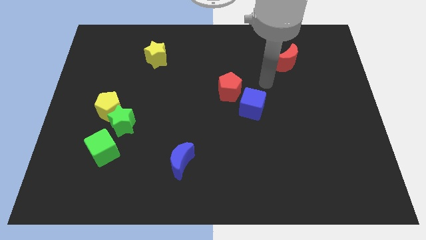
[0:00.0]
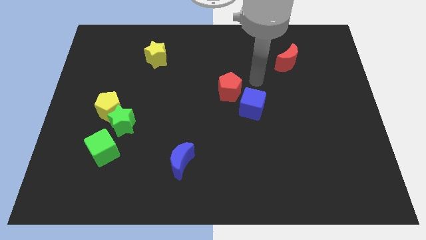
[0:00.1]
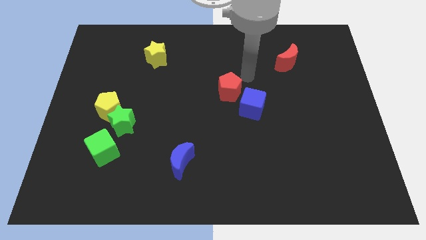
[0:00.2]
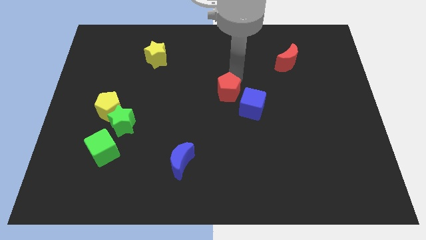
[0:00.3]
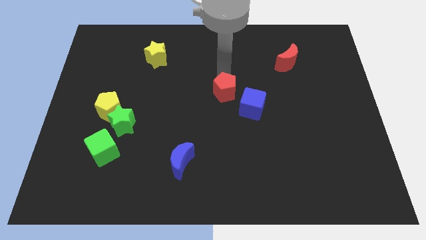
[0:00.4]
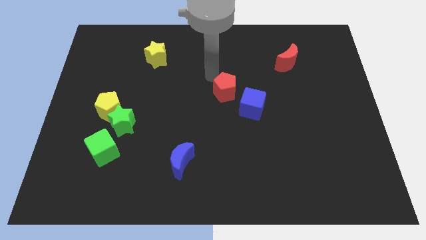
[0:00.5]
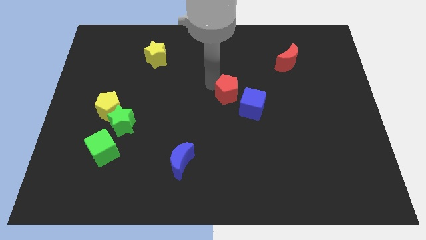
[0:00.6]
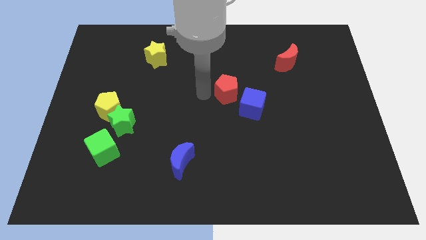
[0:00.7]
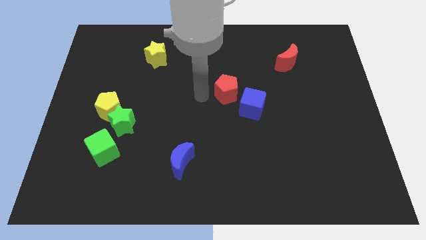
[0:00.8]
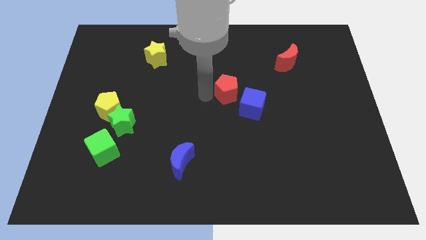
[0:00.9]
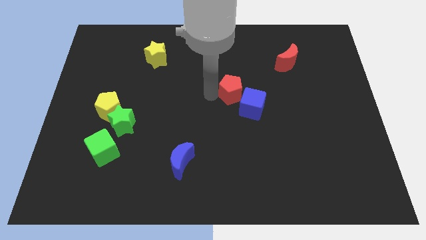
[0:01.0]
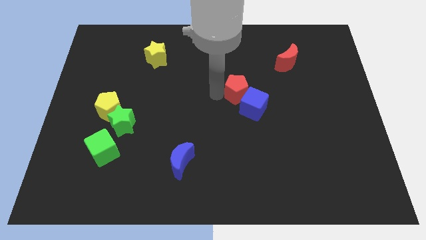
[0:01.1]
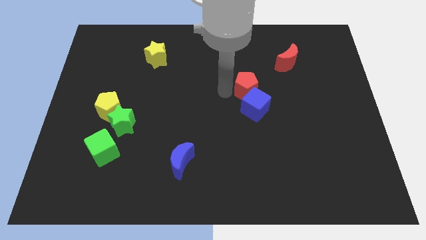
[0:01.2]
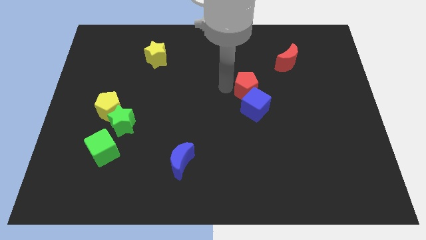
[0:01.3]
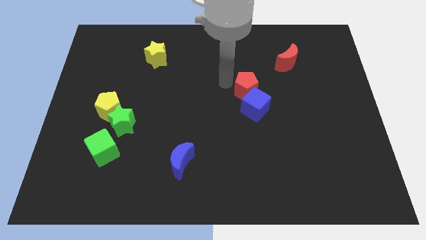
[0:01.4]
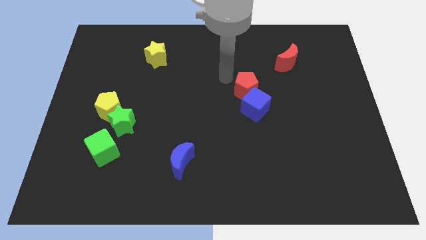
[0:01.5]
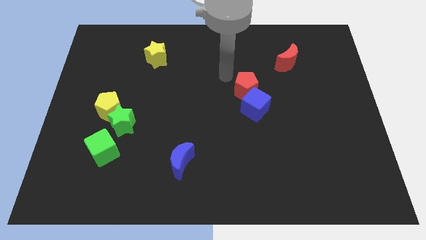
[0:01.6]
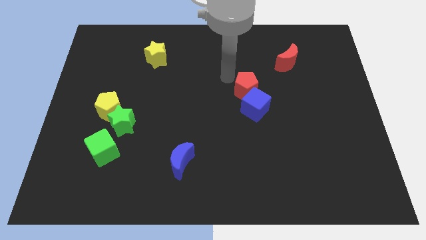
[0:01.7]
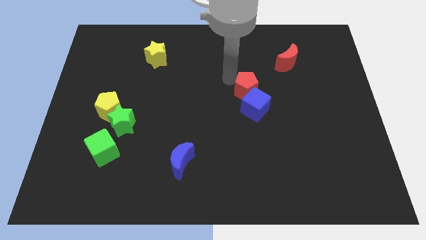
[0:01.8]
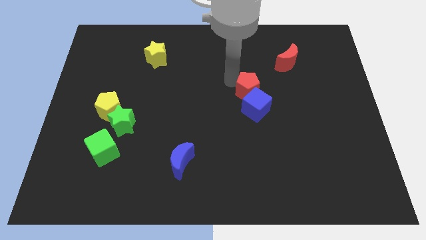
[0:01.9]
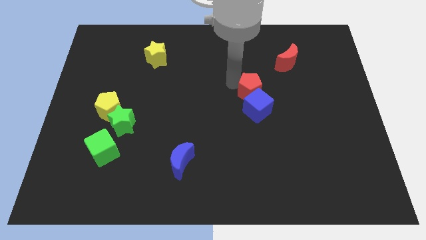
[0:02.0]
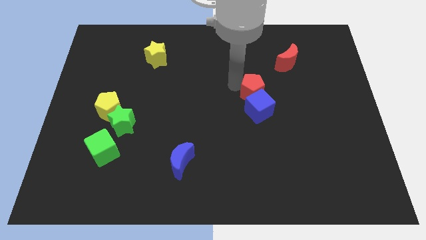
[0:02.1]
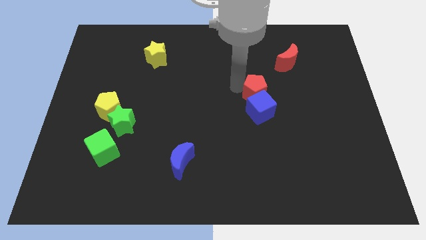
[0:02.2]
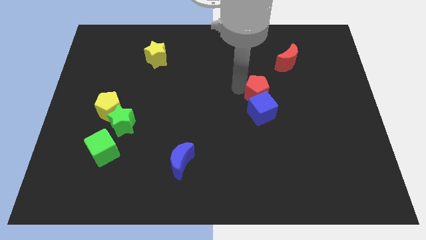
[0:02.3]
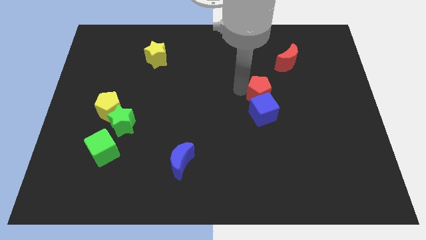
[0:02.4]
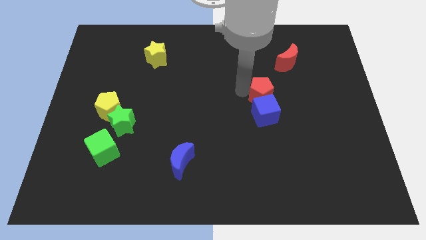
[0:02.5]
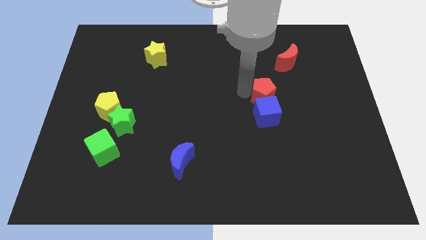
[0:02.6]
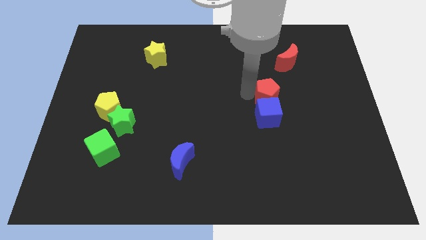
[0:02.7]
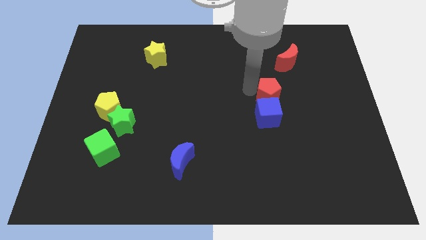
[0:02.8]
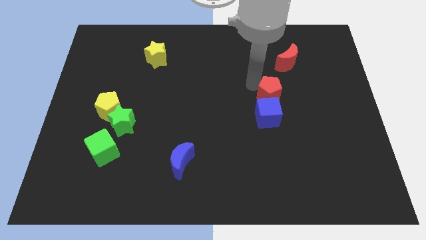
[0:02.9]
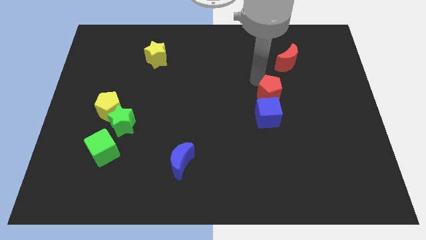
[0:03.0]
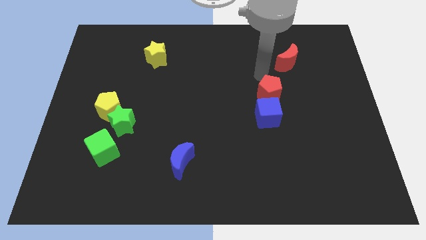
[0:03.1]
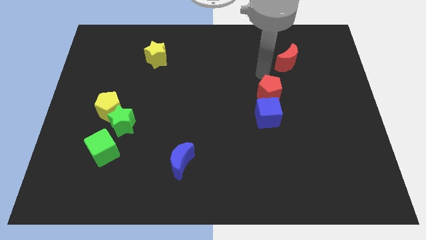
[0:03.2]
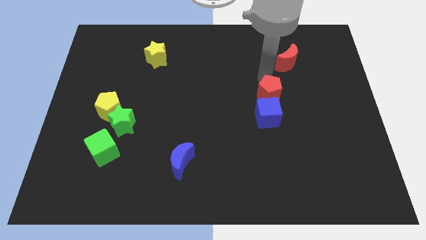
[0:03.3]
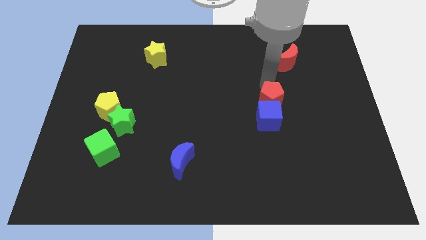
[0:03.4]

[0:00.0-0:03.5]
slide the red pentagon diagonally downwards and right a little

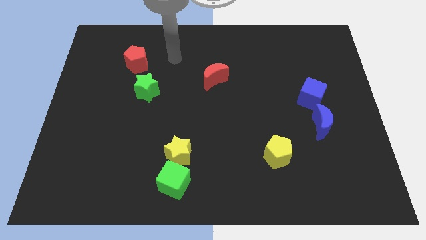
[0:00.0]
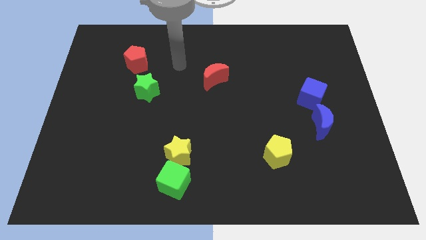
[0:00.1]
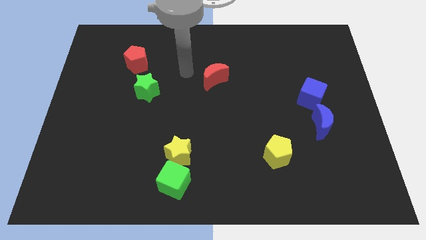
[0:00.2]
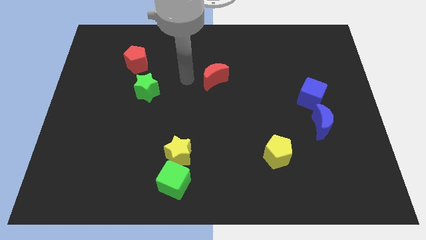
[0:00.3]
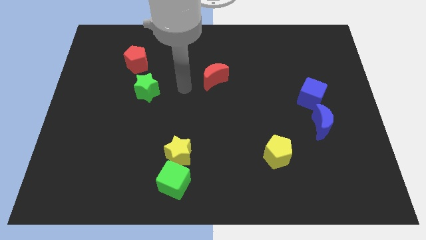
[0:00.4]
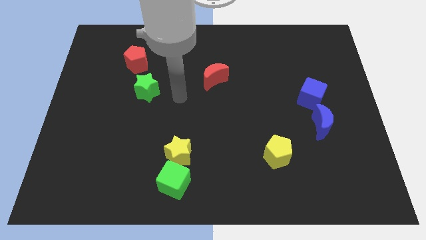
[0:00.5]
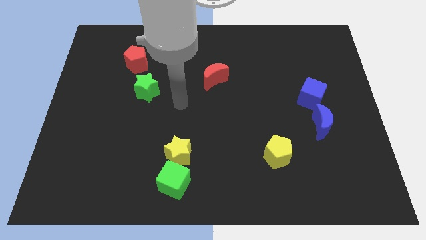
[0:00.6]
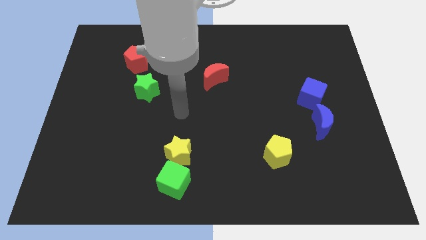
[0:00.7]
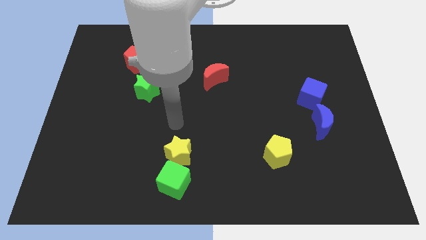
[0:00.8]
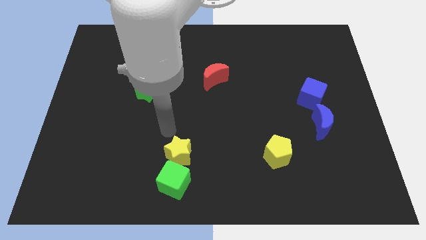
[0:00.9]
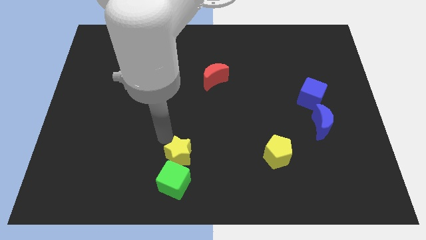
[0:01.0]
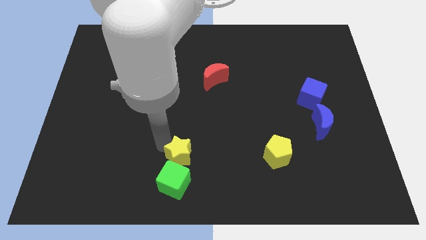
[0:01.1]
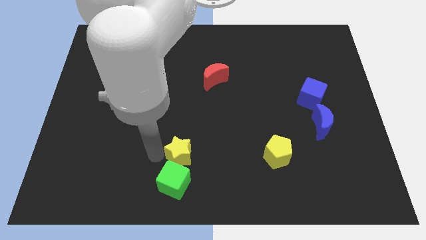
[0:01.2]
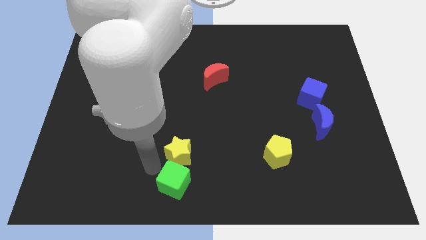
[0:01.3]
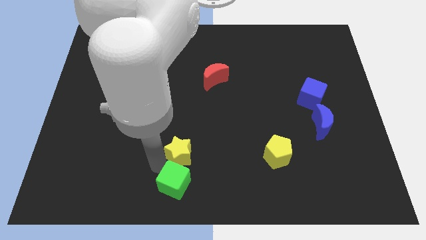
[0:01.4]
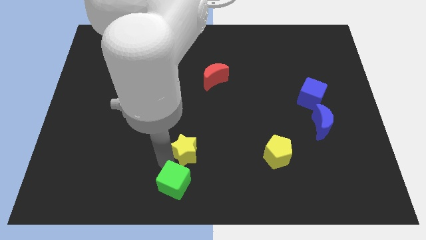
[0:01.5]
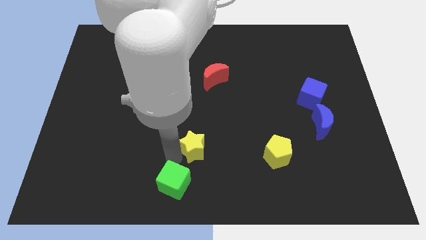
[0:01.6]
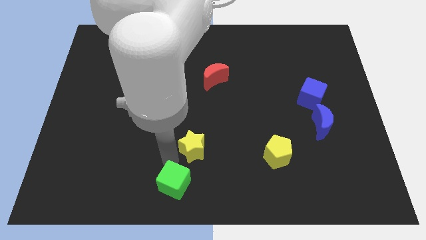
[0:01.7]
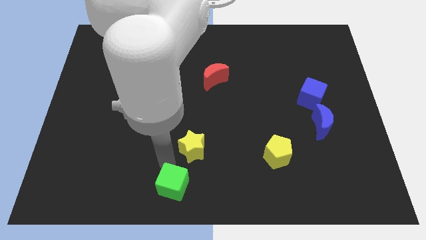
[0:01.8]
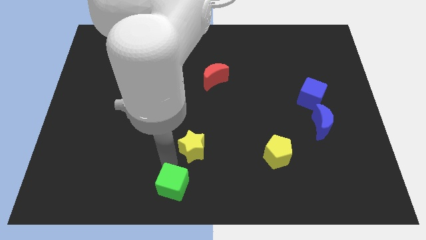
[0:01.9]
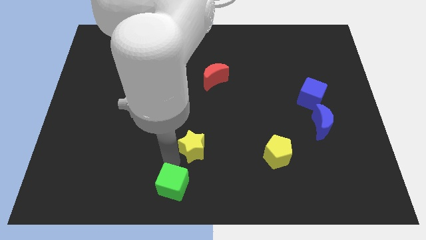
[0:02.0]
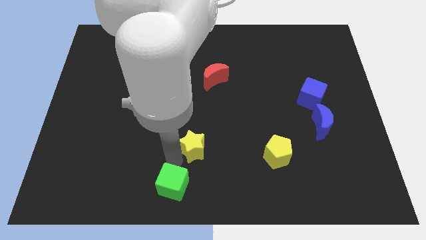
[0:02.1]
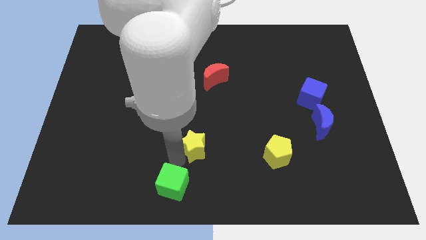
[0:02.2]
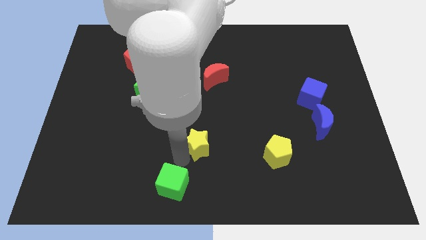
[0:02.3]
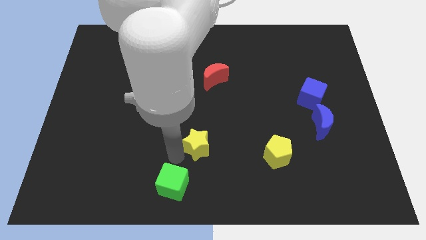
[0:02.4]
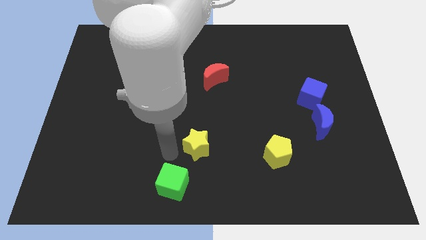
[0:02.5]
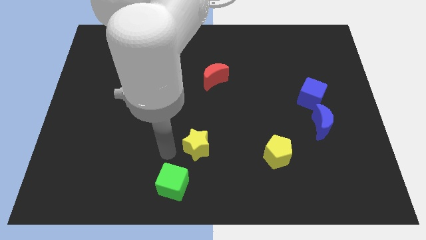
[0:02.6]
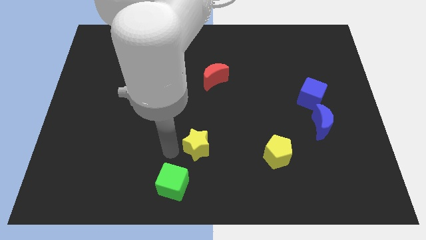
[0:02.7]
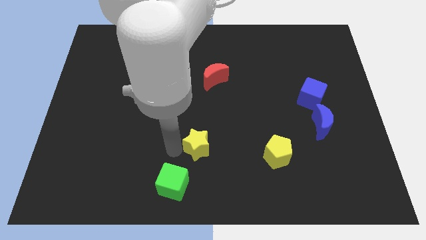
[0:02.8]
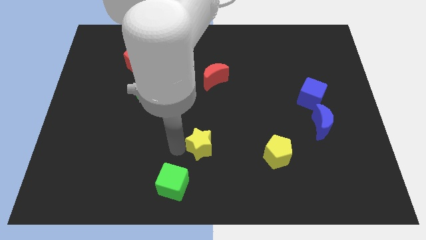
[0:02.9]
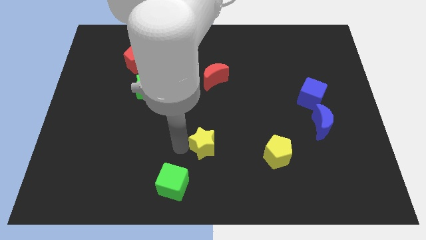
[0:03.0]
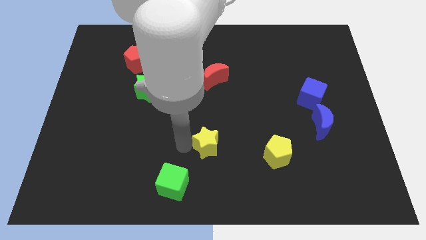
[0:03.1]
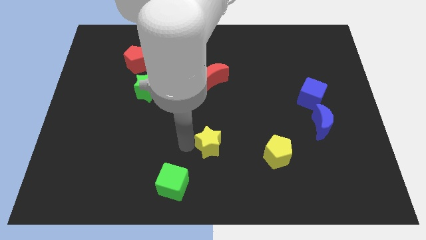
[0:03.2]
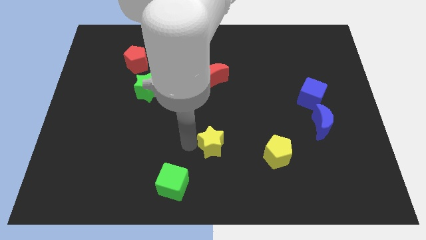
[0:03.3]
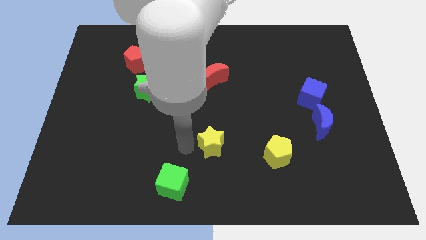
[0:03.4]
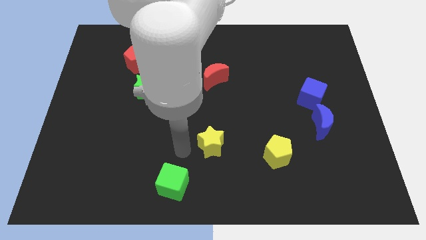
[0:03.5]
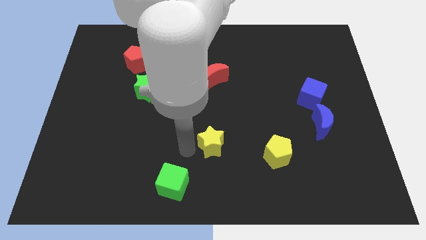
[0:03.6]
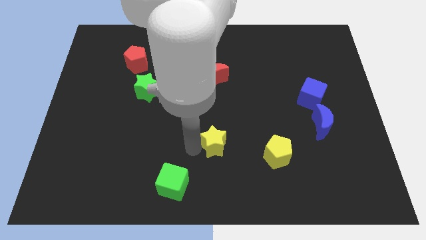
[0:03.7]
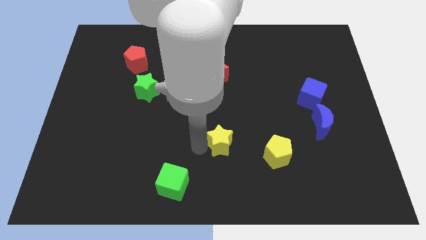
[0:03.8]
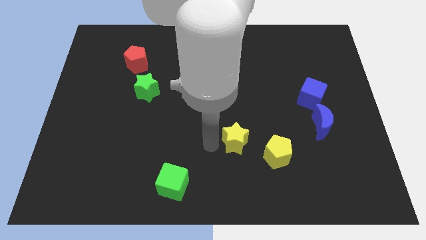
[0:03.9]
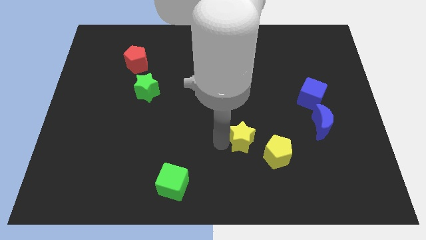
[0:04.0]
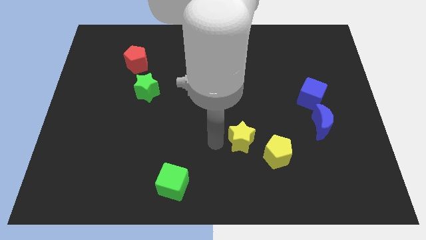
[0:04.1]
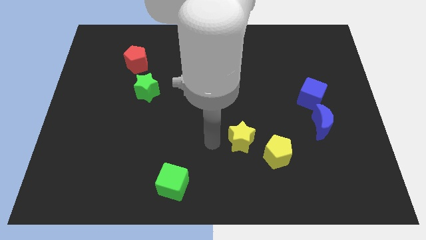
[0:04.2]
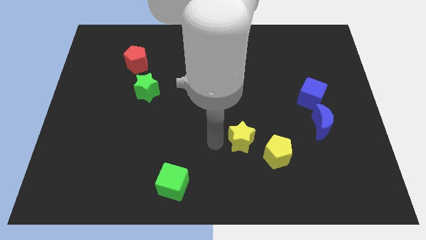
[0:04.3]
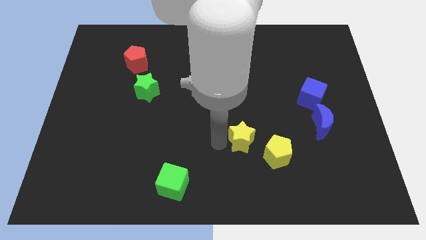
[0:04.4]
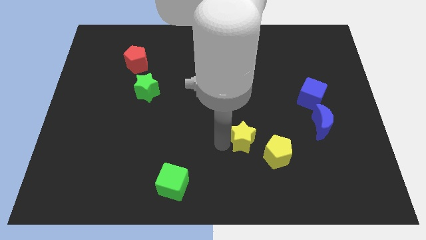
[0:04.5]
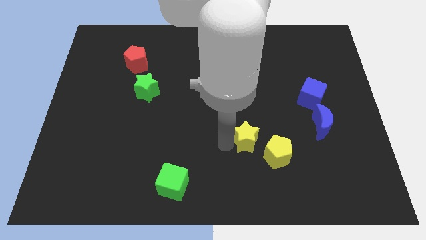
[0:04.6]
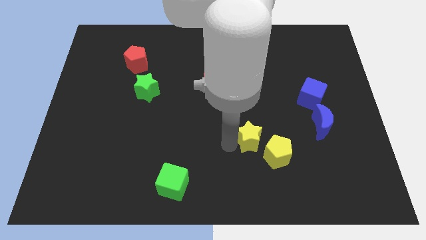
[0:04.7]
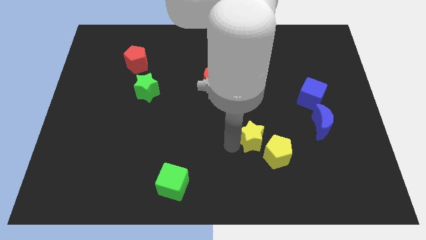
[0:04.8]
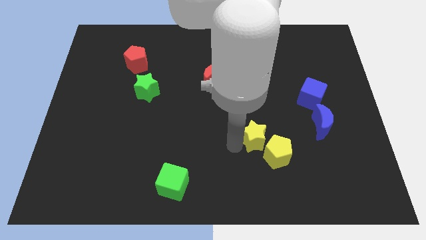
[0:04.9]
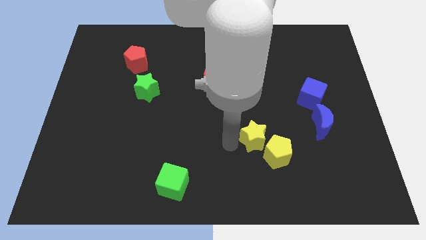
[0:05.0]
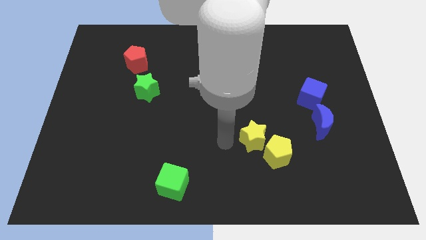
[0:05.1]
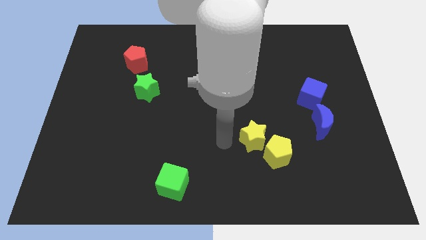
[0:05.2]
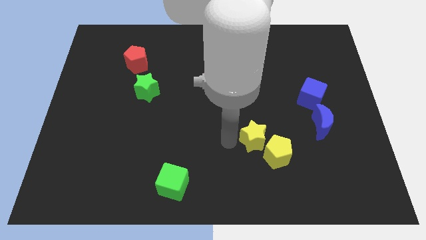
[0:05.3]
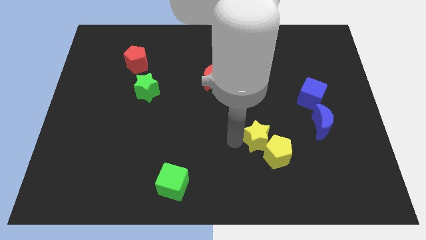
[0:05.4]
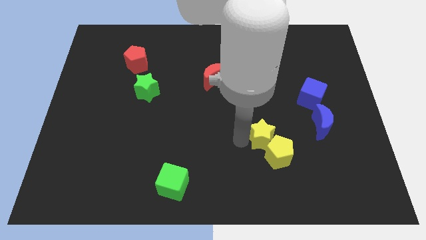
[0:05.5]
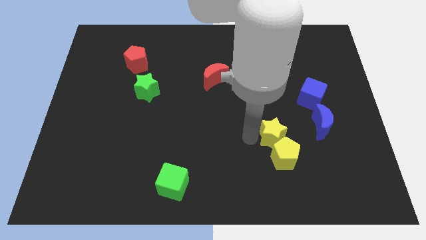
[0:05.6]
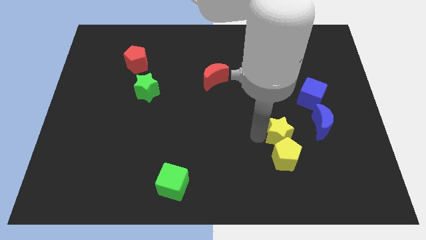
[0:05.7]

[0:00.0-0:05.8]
push the yellow star to the right
